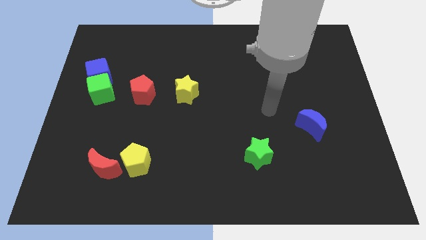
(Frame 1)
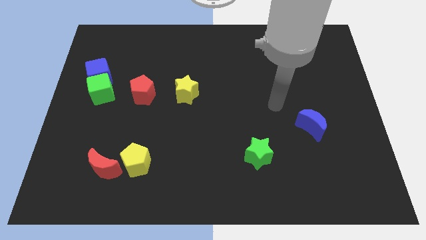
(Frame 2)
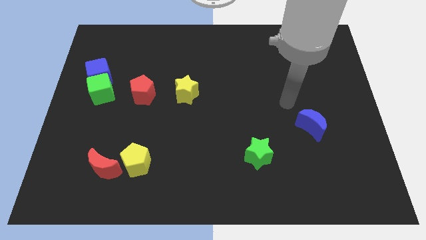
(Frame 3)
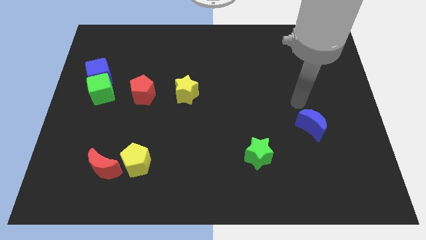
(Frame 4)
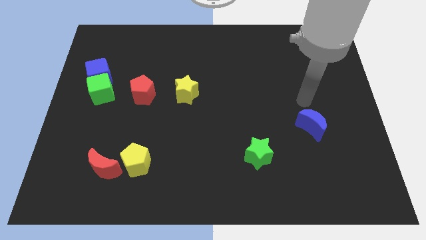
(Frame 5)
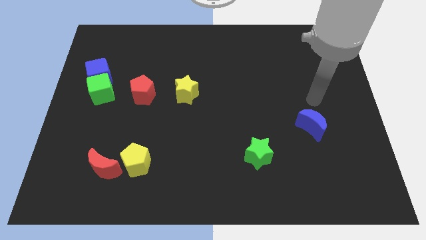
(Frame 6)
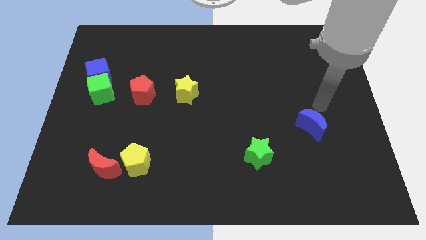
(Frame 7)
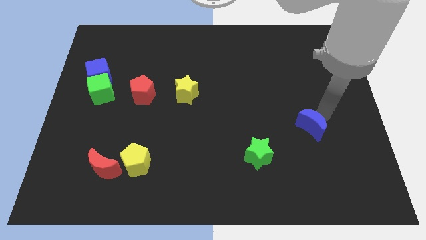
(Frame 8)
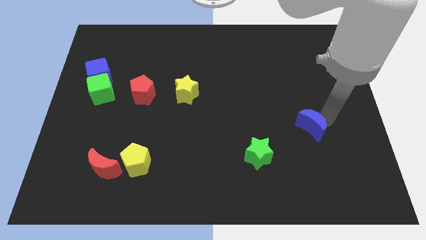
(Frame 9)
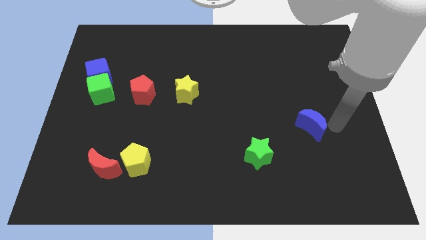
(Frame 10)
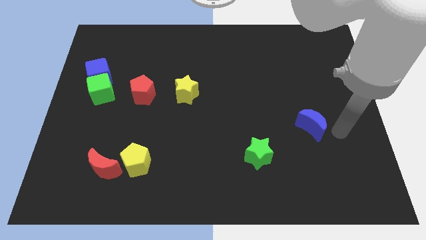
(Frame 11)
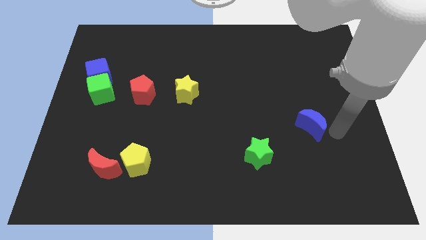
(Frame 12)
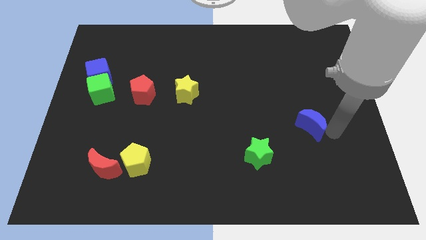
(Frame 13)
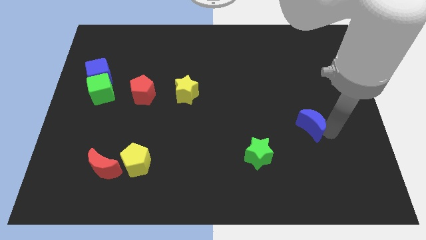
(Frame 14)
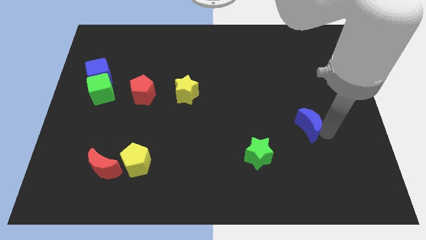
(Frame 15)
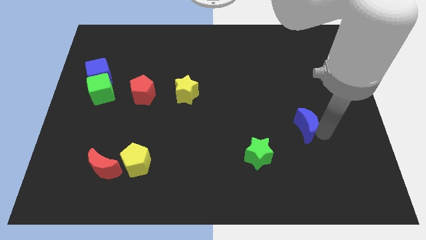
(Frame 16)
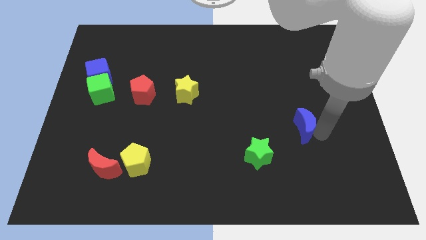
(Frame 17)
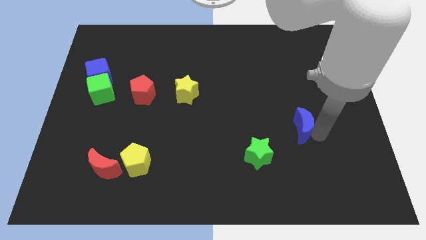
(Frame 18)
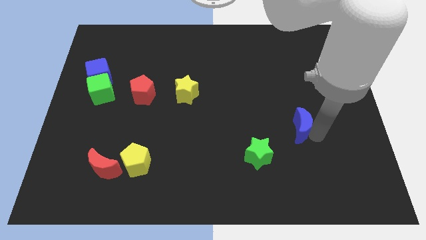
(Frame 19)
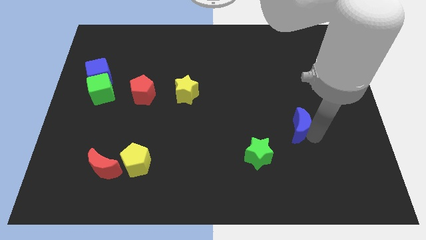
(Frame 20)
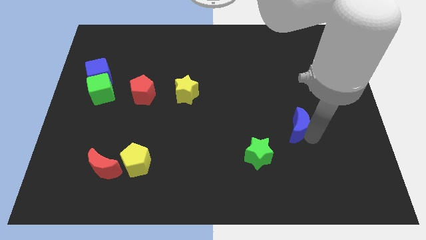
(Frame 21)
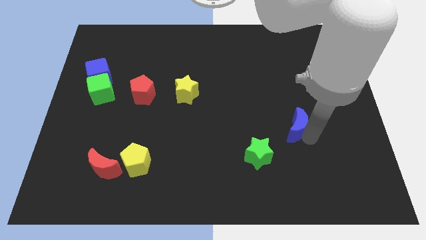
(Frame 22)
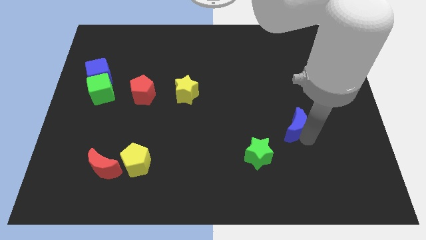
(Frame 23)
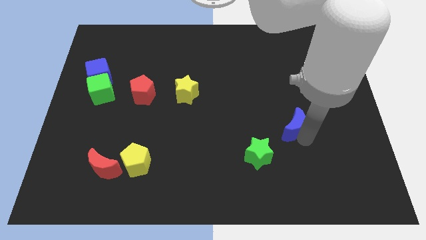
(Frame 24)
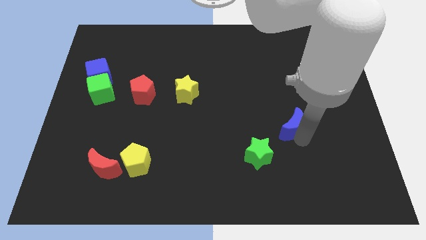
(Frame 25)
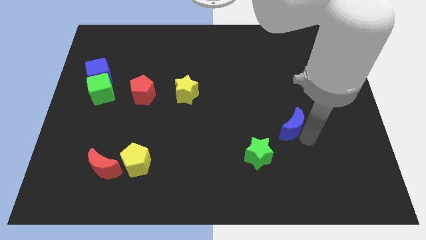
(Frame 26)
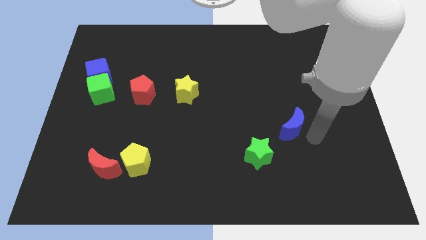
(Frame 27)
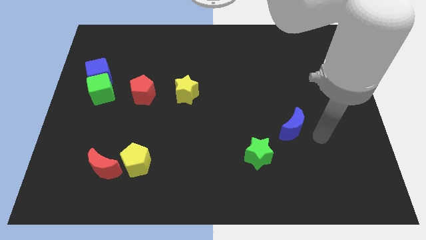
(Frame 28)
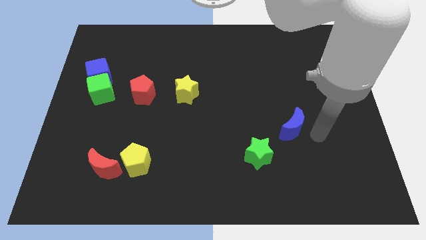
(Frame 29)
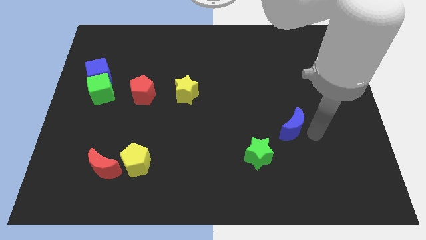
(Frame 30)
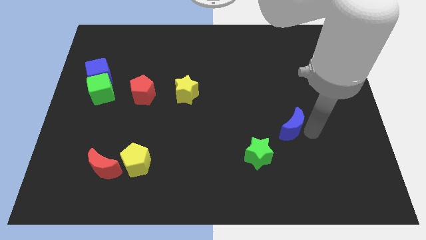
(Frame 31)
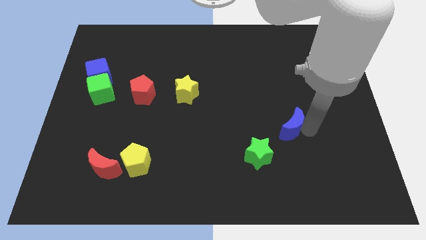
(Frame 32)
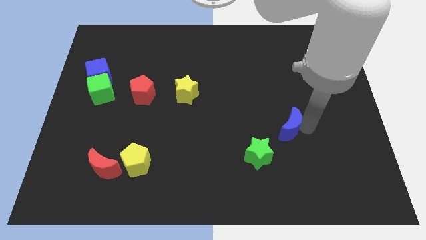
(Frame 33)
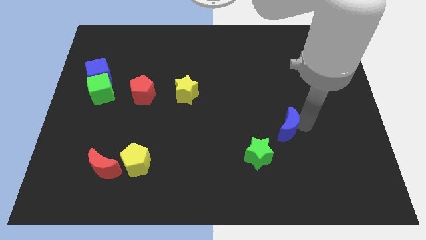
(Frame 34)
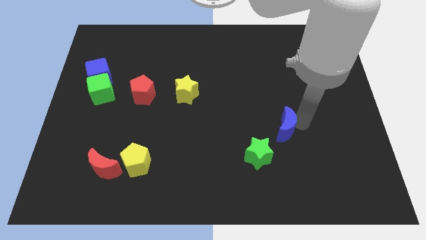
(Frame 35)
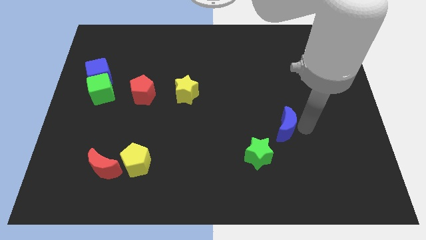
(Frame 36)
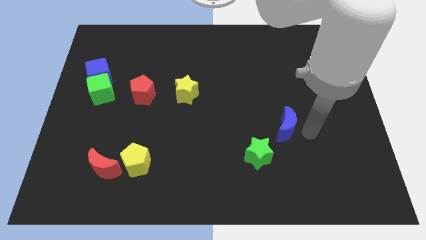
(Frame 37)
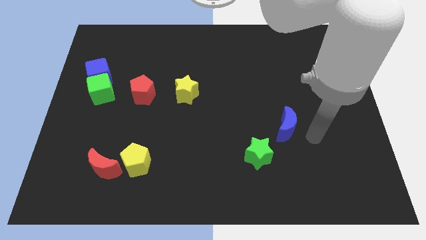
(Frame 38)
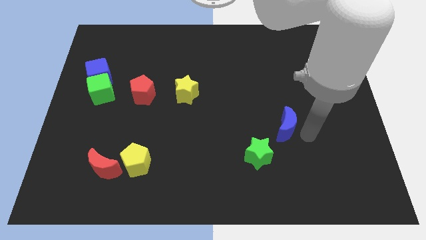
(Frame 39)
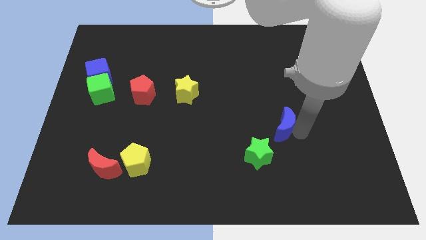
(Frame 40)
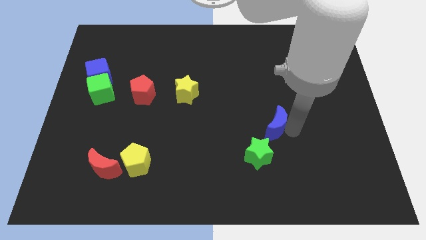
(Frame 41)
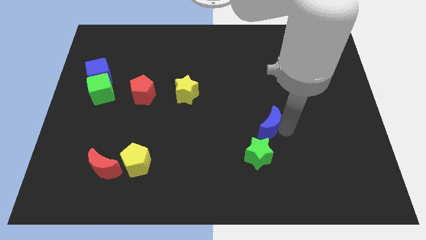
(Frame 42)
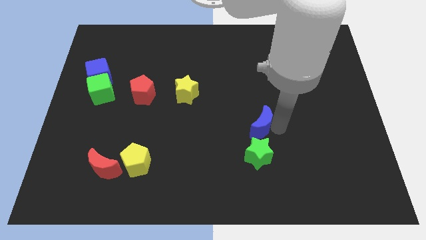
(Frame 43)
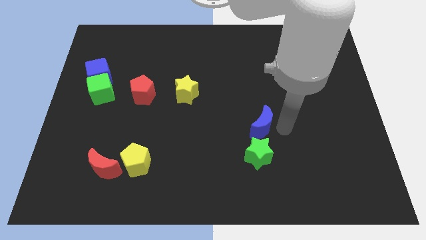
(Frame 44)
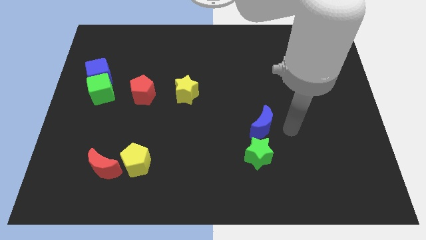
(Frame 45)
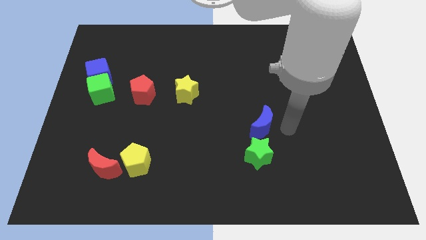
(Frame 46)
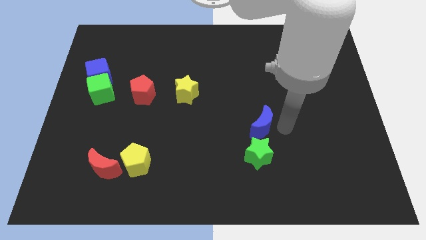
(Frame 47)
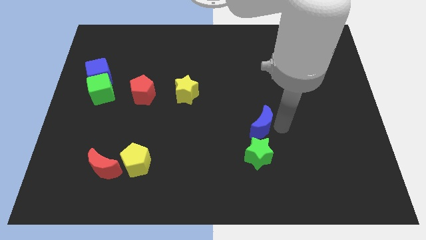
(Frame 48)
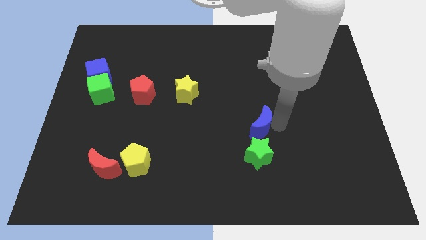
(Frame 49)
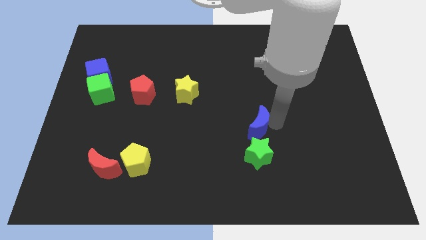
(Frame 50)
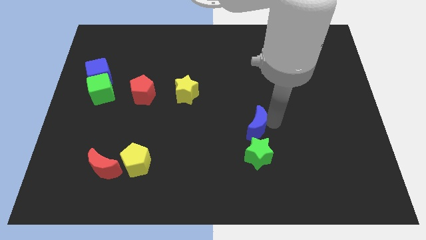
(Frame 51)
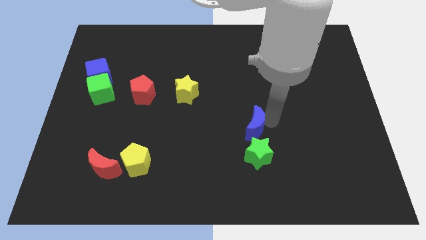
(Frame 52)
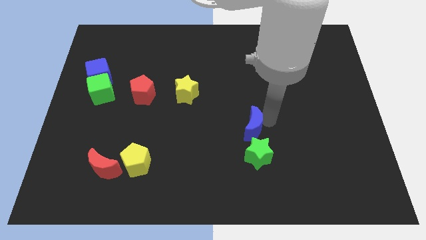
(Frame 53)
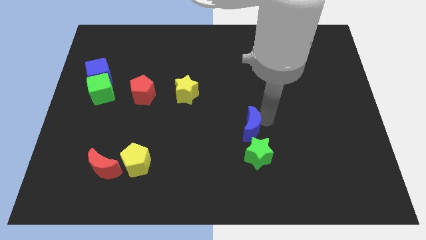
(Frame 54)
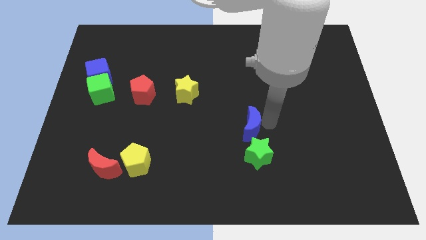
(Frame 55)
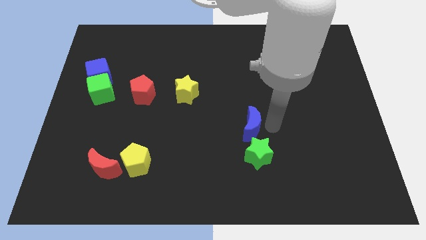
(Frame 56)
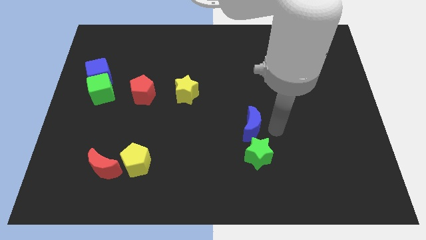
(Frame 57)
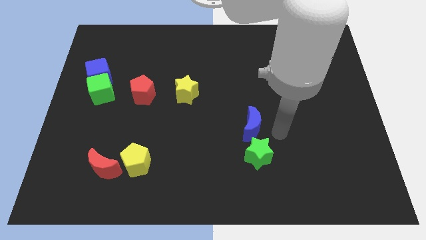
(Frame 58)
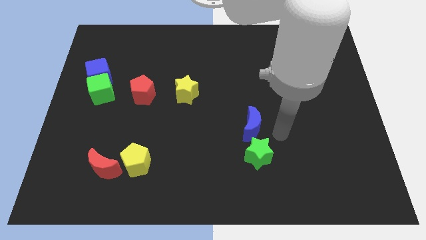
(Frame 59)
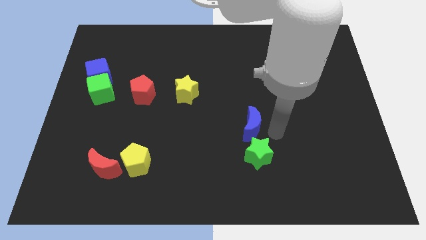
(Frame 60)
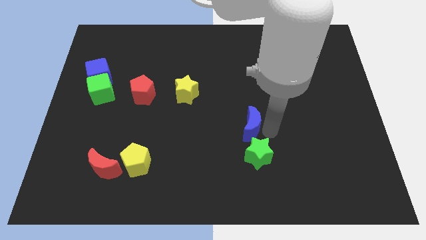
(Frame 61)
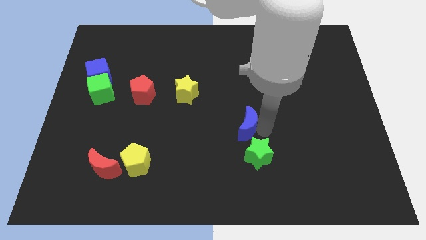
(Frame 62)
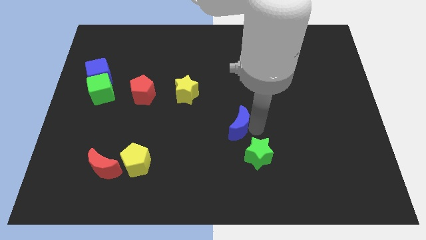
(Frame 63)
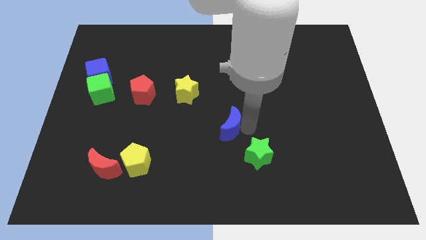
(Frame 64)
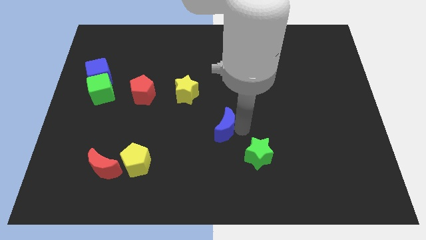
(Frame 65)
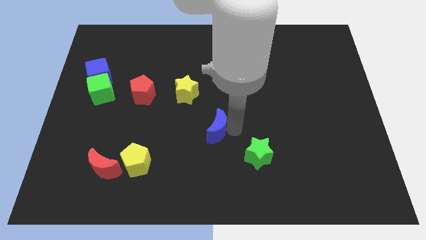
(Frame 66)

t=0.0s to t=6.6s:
slide the blue moon left

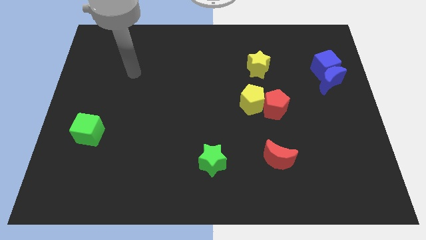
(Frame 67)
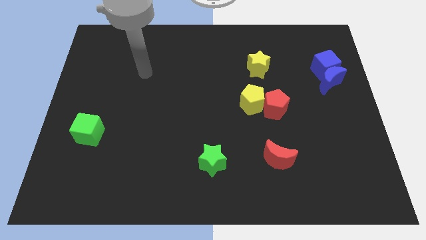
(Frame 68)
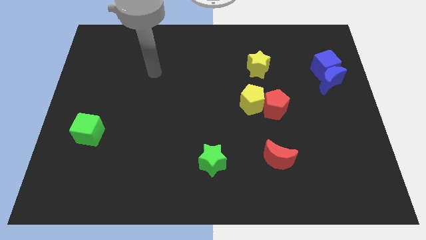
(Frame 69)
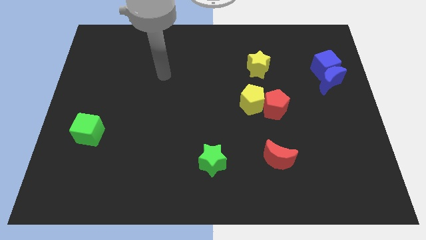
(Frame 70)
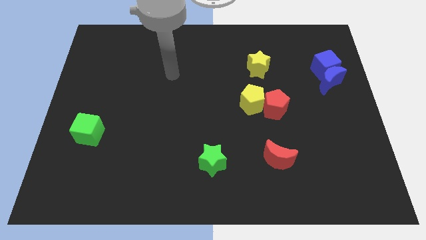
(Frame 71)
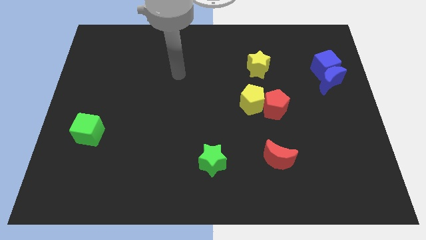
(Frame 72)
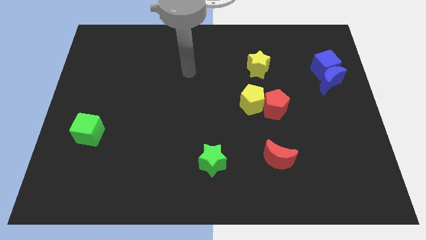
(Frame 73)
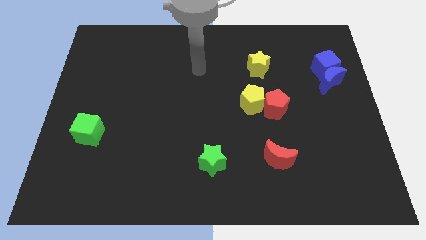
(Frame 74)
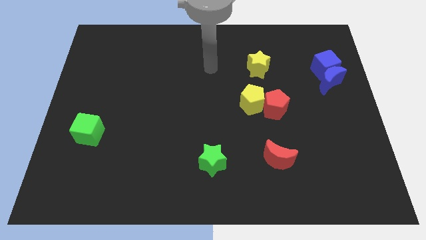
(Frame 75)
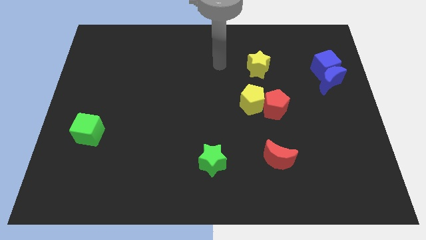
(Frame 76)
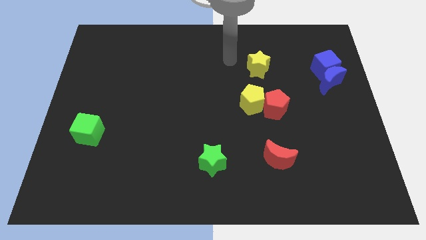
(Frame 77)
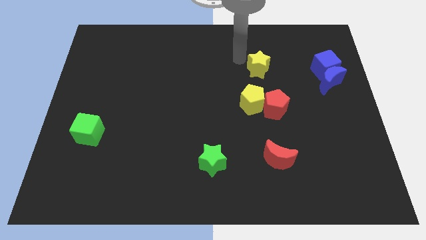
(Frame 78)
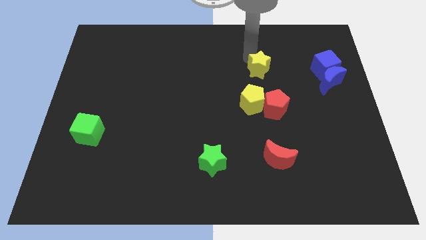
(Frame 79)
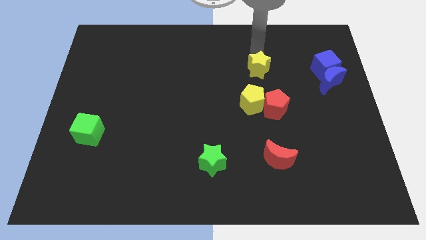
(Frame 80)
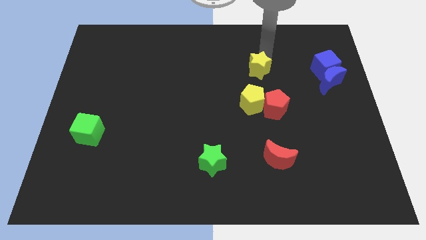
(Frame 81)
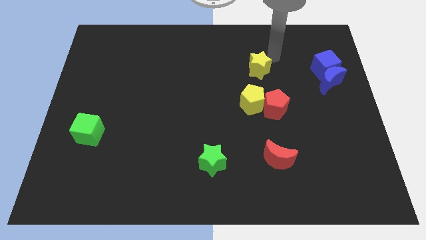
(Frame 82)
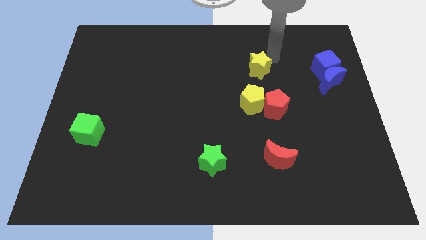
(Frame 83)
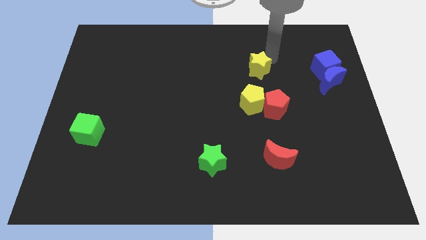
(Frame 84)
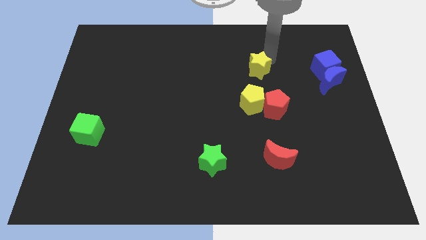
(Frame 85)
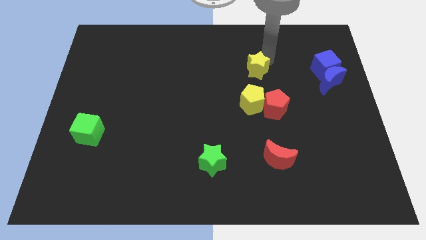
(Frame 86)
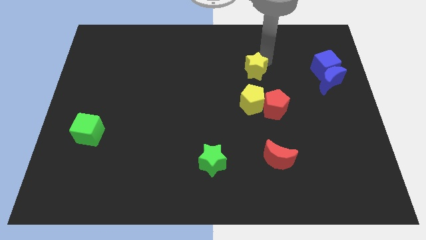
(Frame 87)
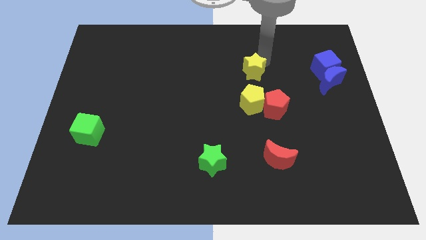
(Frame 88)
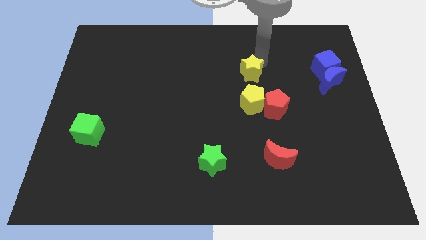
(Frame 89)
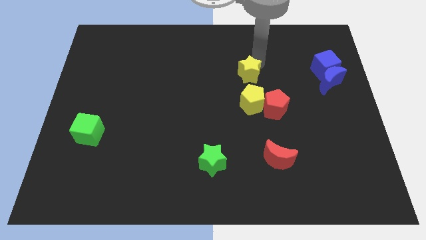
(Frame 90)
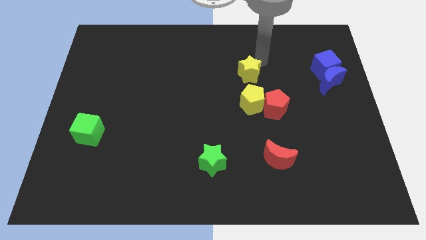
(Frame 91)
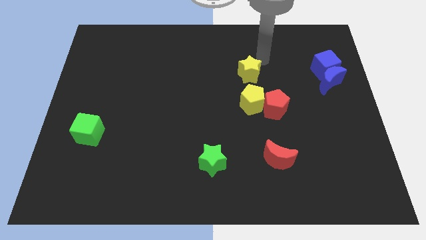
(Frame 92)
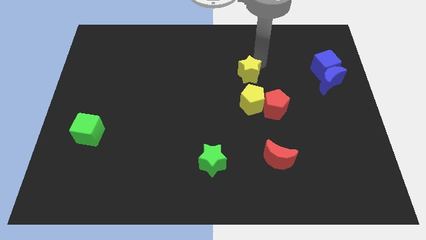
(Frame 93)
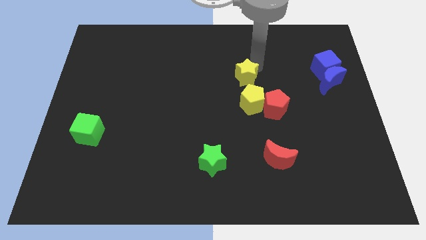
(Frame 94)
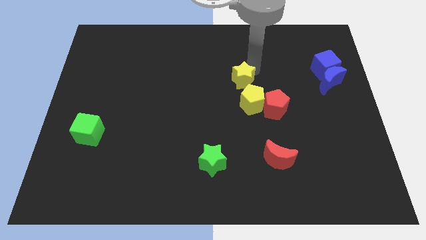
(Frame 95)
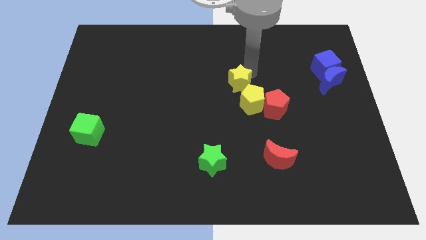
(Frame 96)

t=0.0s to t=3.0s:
push the yellow star down and left diagonally a little
